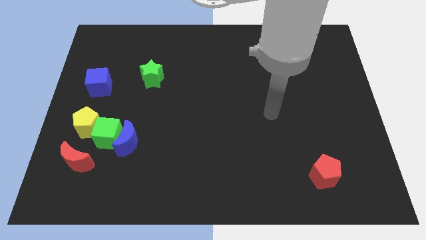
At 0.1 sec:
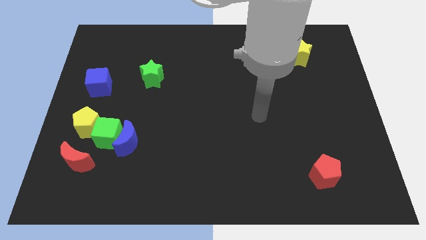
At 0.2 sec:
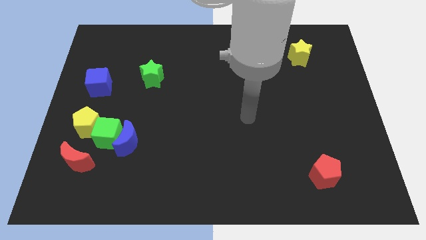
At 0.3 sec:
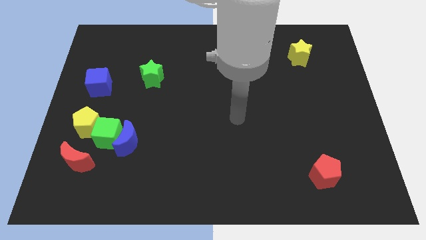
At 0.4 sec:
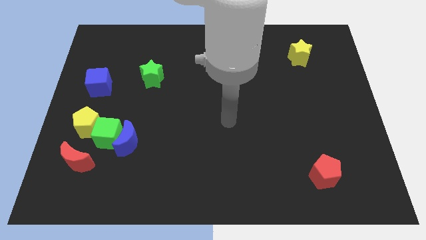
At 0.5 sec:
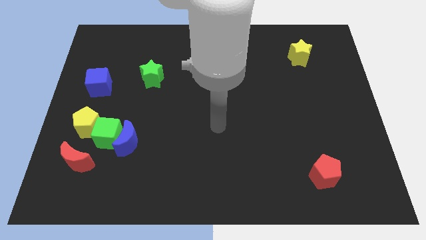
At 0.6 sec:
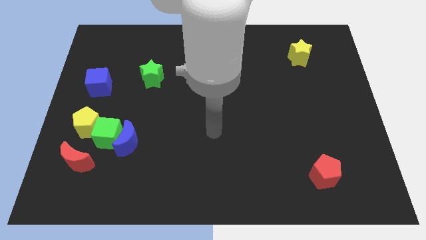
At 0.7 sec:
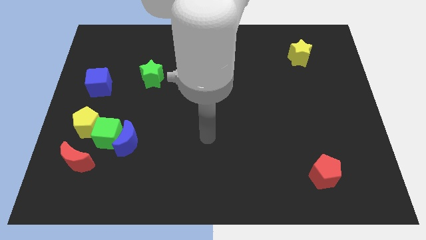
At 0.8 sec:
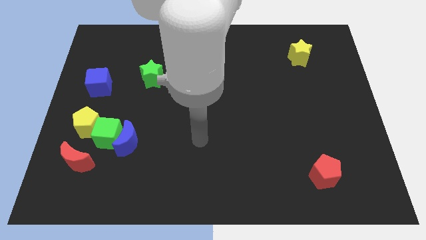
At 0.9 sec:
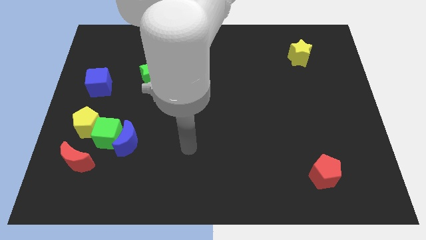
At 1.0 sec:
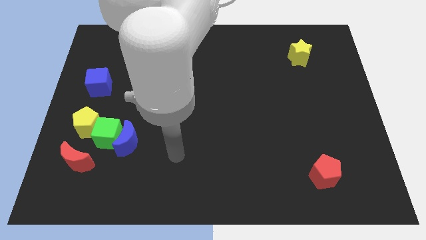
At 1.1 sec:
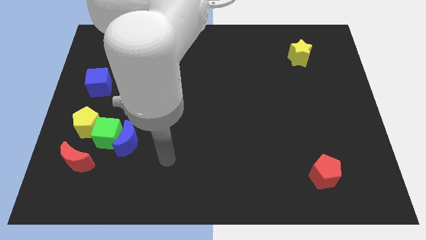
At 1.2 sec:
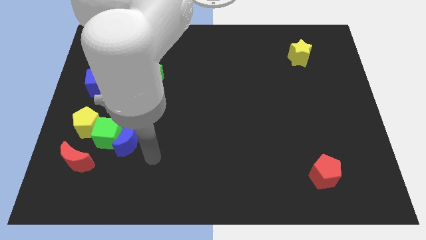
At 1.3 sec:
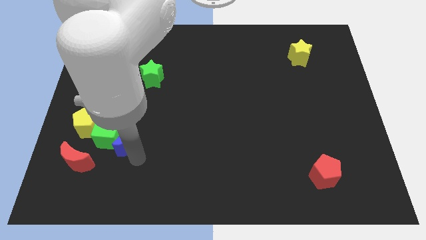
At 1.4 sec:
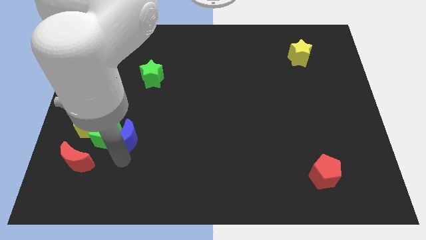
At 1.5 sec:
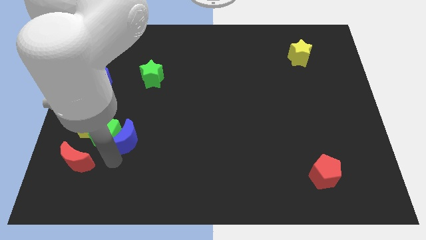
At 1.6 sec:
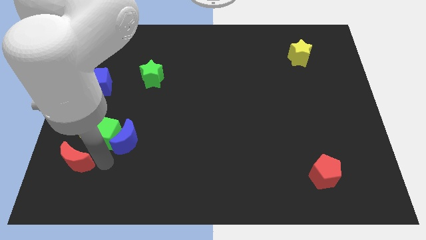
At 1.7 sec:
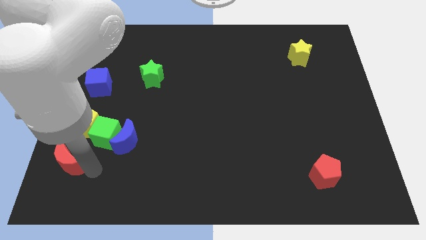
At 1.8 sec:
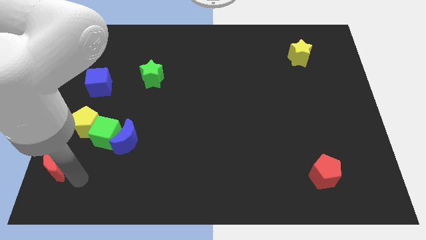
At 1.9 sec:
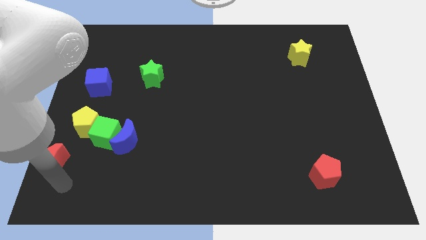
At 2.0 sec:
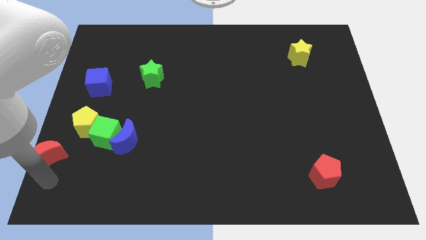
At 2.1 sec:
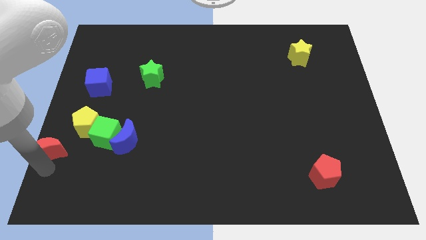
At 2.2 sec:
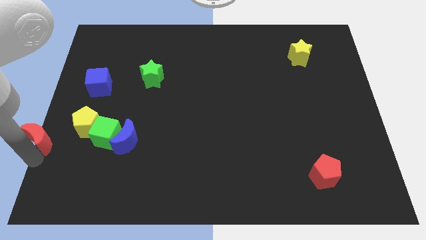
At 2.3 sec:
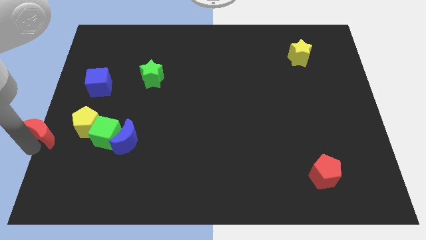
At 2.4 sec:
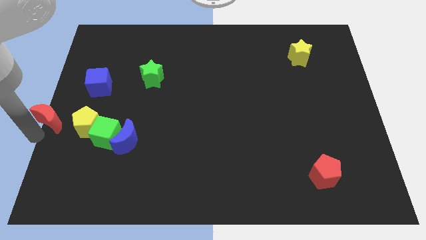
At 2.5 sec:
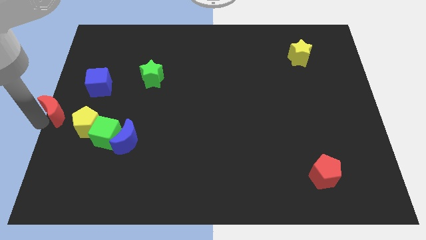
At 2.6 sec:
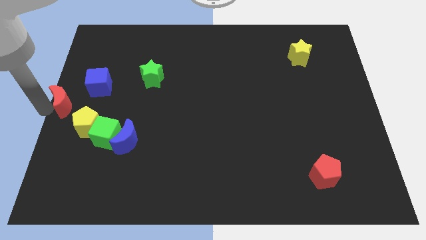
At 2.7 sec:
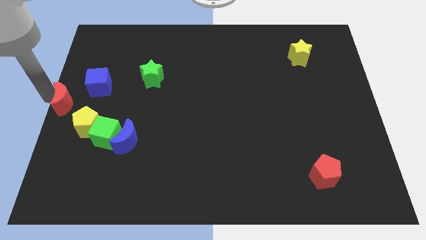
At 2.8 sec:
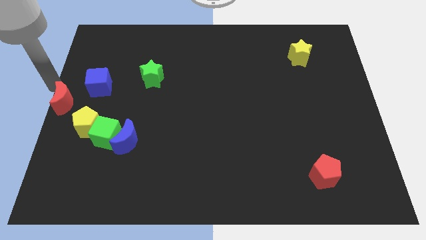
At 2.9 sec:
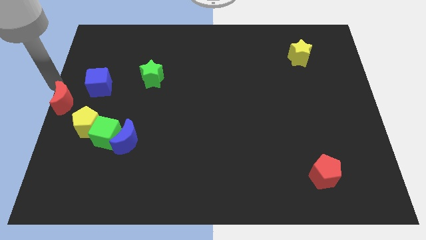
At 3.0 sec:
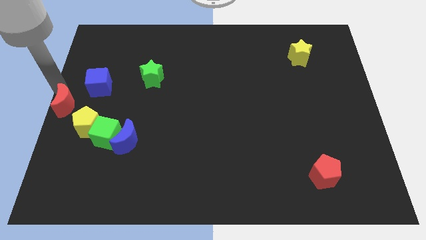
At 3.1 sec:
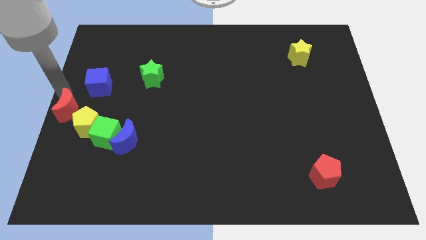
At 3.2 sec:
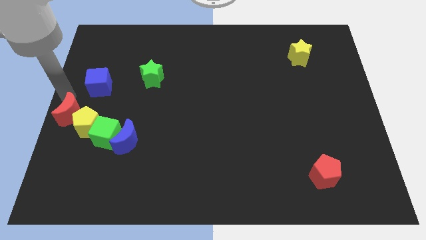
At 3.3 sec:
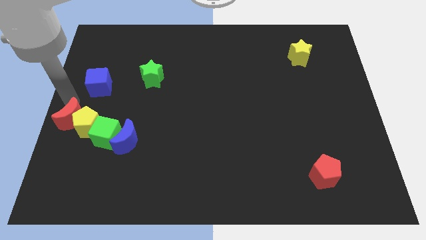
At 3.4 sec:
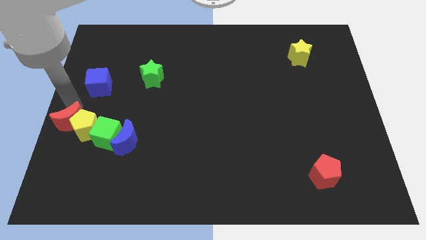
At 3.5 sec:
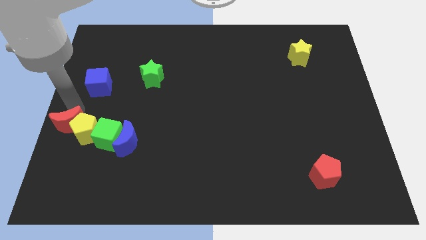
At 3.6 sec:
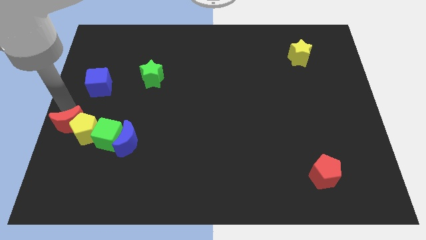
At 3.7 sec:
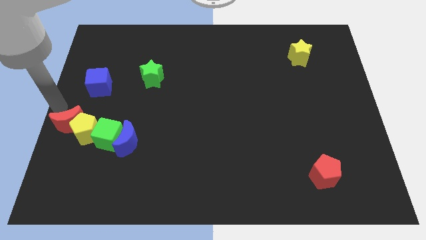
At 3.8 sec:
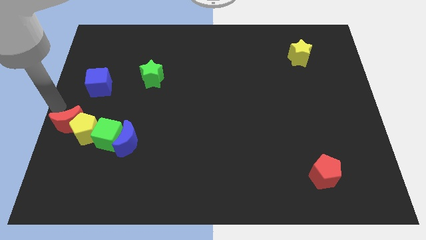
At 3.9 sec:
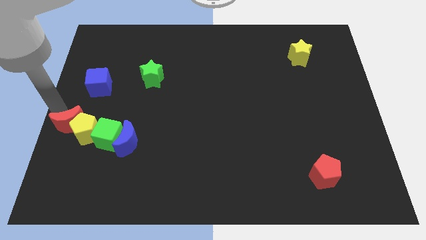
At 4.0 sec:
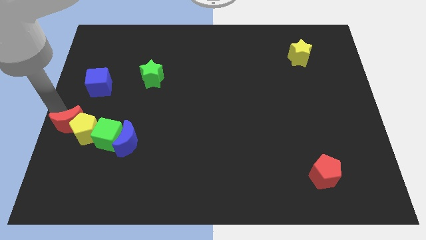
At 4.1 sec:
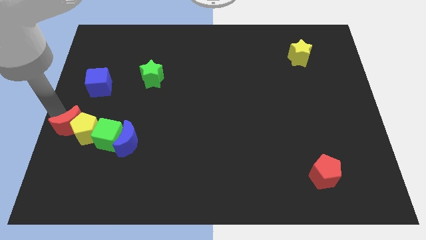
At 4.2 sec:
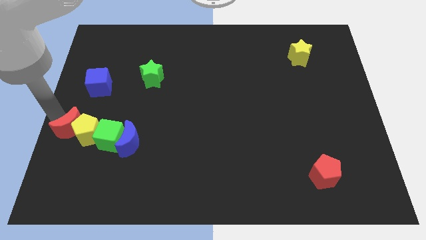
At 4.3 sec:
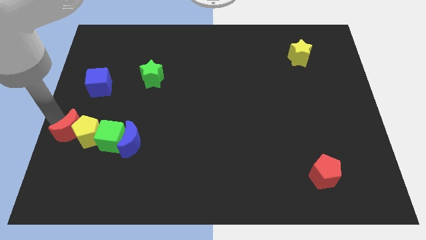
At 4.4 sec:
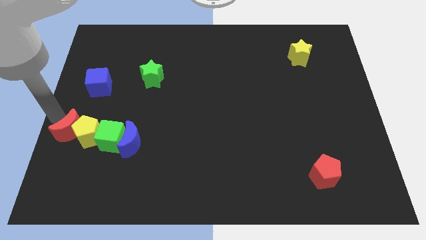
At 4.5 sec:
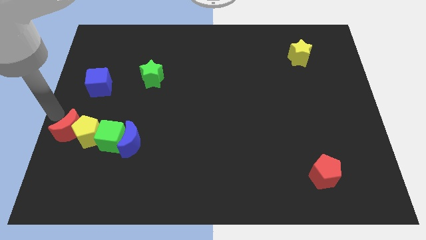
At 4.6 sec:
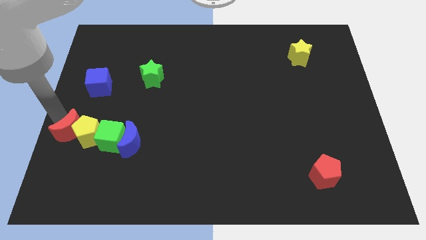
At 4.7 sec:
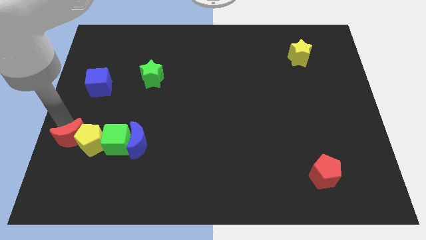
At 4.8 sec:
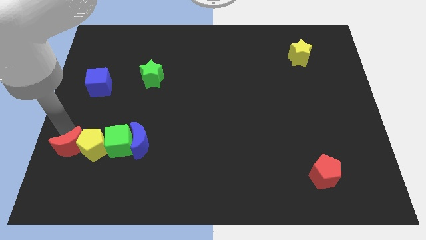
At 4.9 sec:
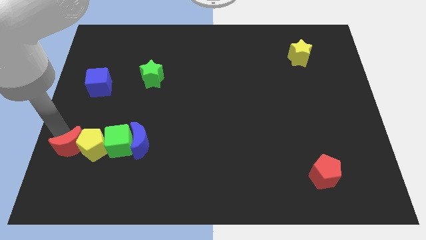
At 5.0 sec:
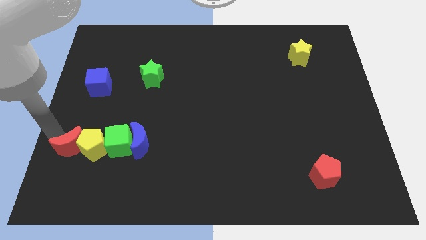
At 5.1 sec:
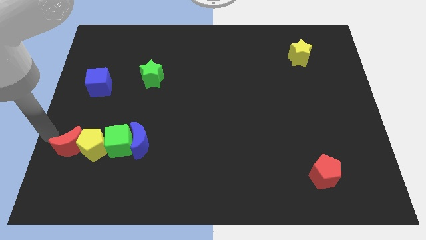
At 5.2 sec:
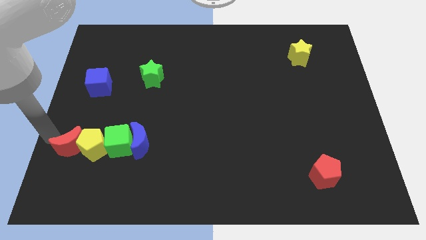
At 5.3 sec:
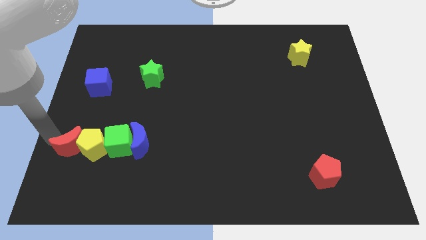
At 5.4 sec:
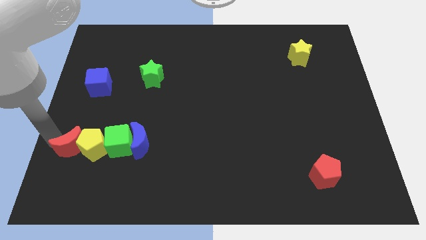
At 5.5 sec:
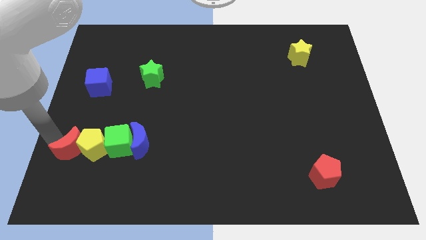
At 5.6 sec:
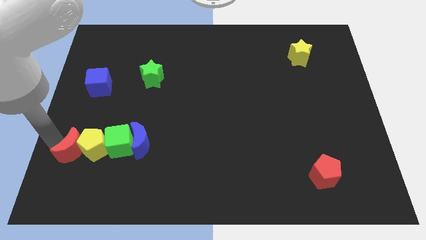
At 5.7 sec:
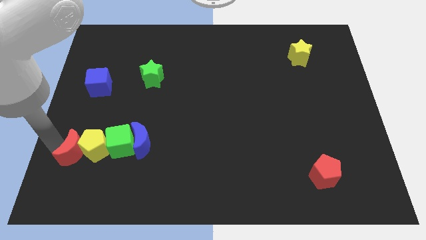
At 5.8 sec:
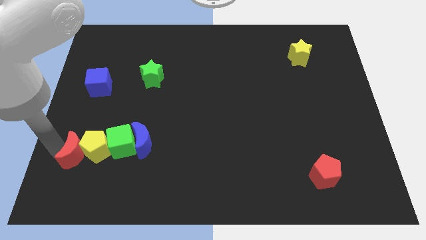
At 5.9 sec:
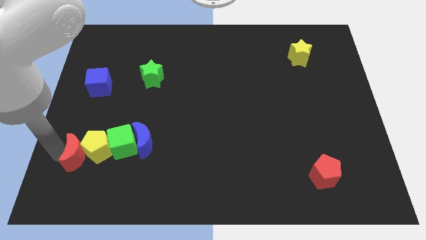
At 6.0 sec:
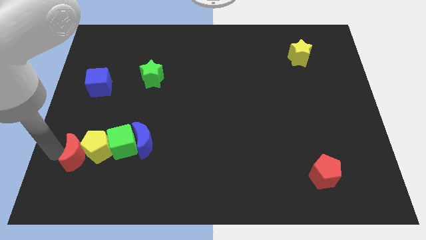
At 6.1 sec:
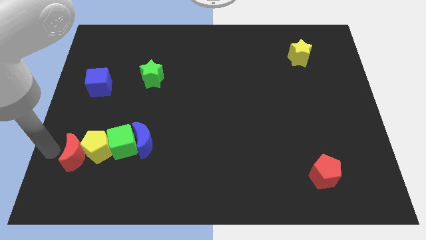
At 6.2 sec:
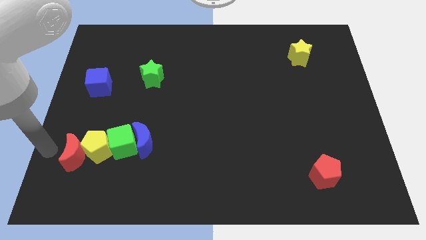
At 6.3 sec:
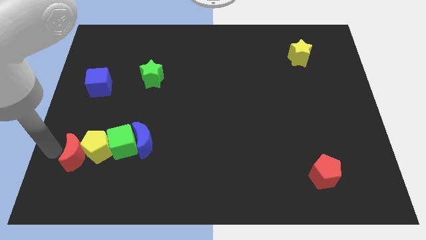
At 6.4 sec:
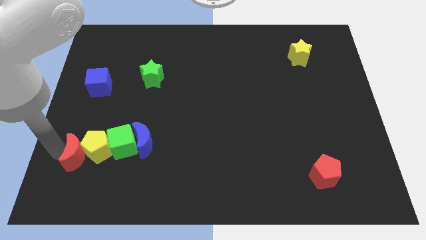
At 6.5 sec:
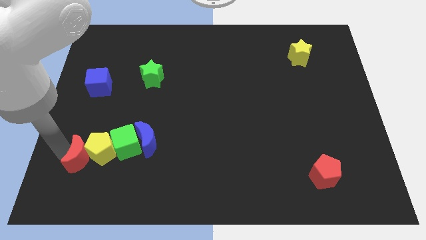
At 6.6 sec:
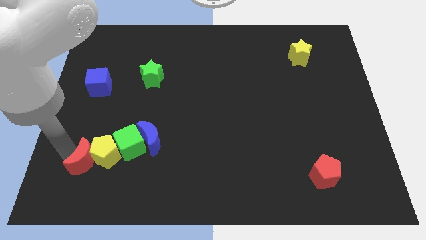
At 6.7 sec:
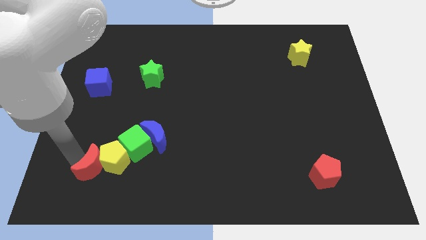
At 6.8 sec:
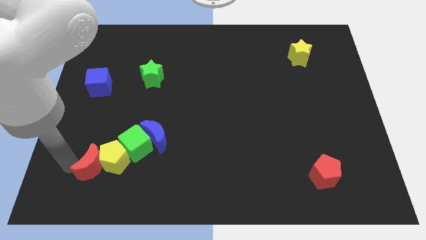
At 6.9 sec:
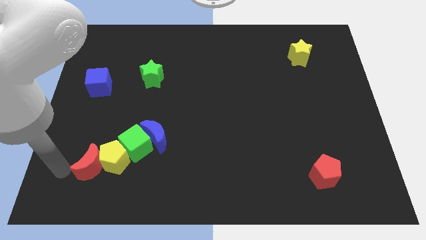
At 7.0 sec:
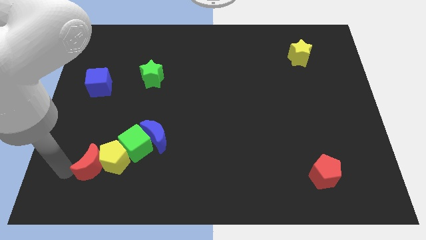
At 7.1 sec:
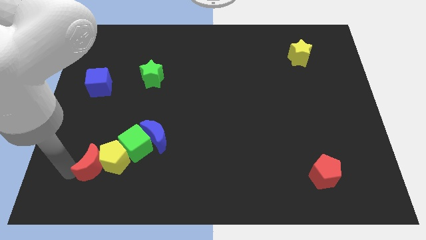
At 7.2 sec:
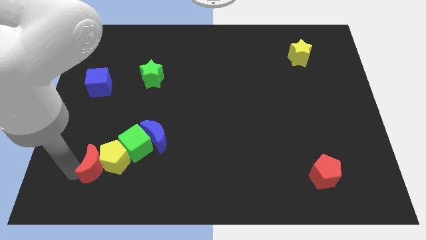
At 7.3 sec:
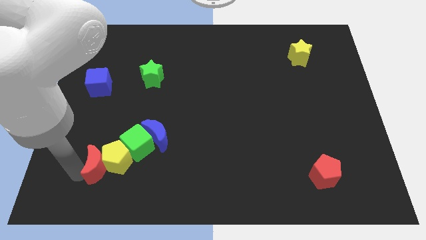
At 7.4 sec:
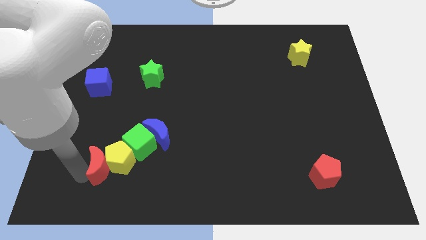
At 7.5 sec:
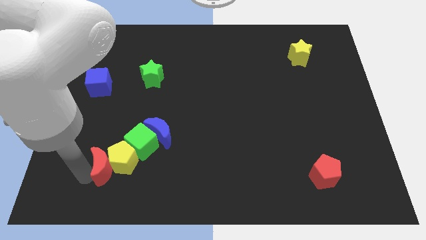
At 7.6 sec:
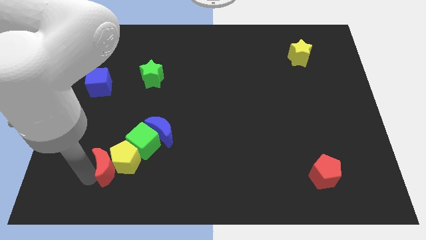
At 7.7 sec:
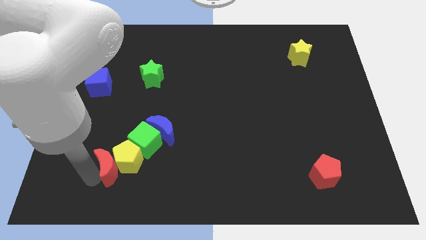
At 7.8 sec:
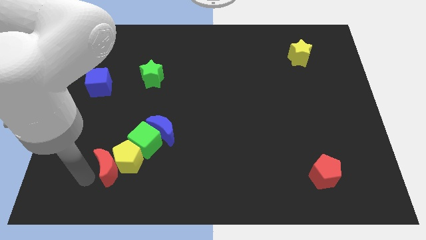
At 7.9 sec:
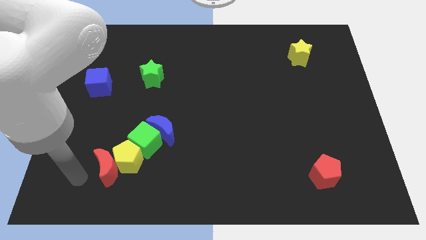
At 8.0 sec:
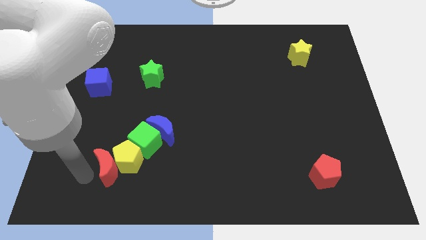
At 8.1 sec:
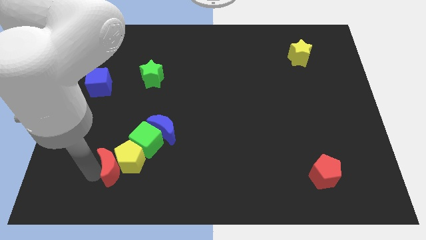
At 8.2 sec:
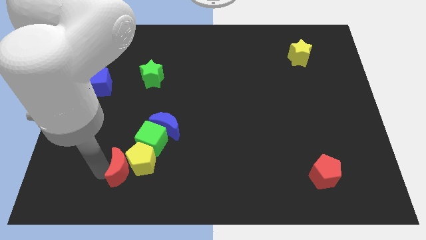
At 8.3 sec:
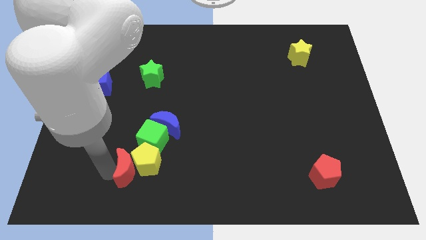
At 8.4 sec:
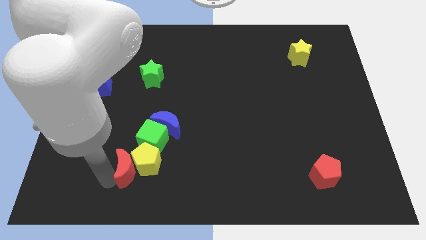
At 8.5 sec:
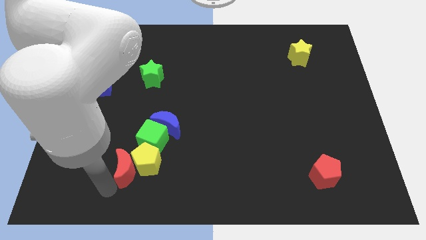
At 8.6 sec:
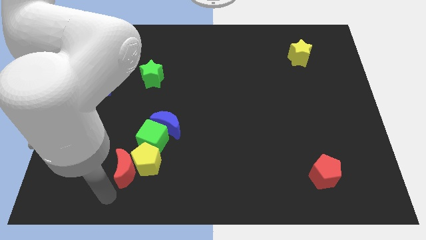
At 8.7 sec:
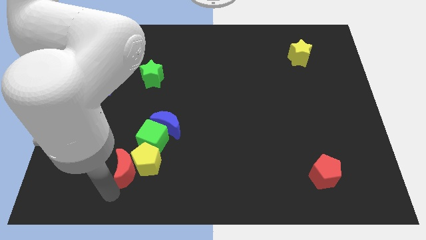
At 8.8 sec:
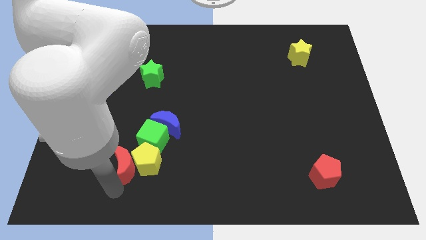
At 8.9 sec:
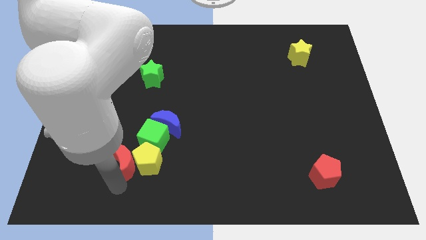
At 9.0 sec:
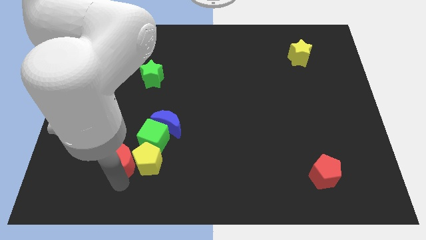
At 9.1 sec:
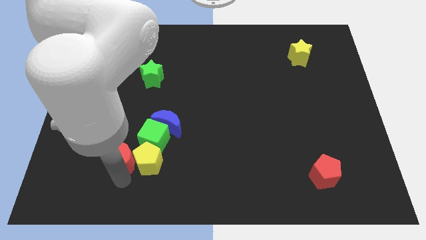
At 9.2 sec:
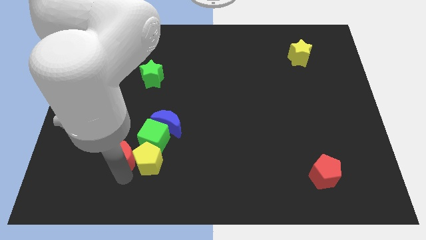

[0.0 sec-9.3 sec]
move the red moon upwards and to the right a little
